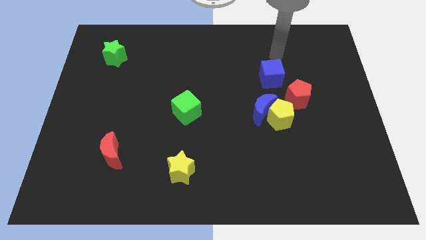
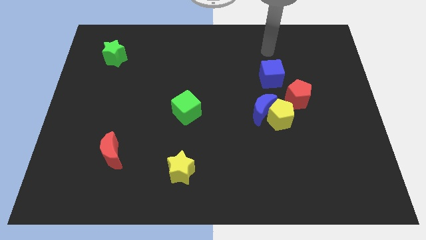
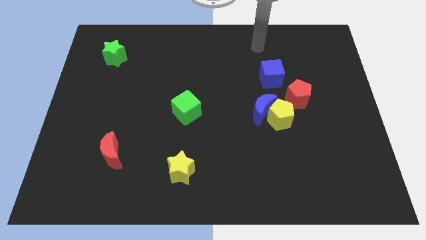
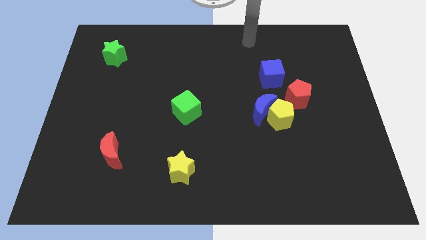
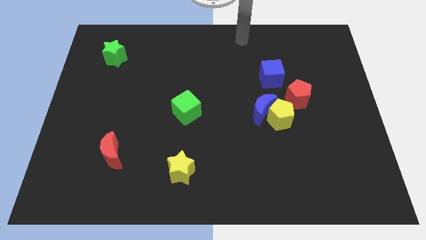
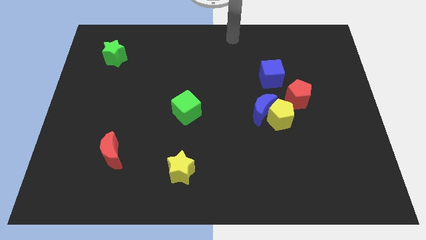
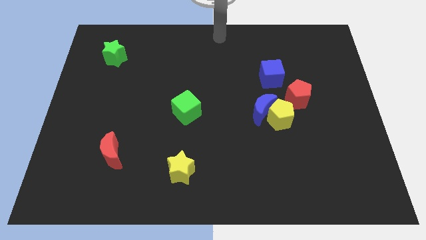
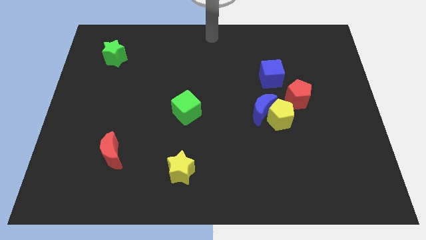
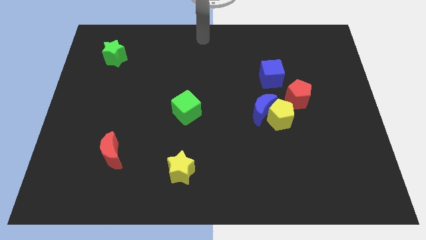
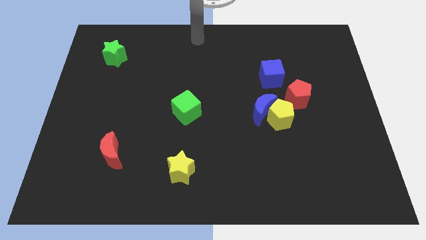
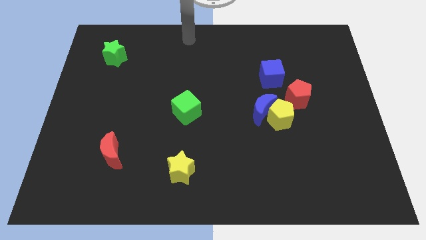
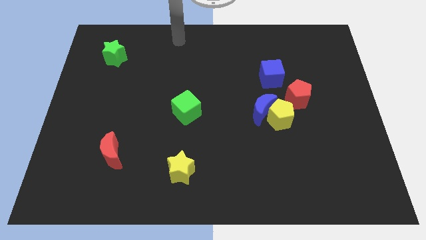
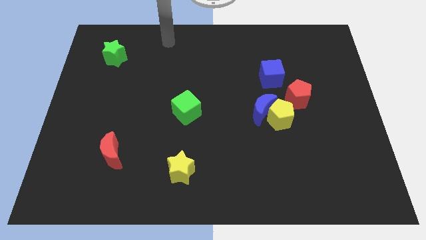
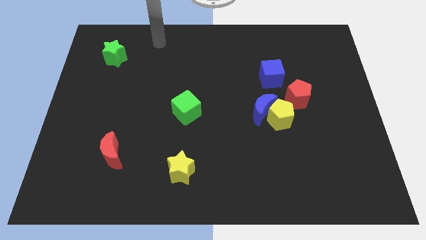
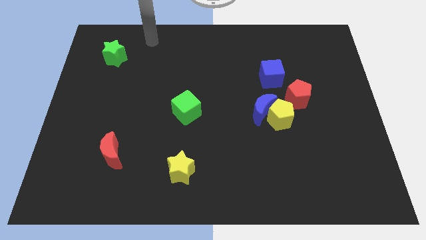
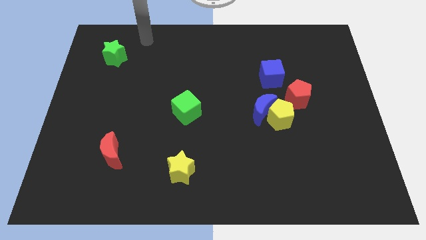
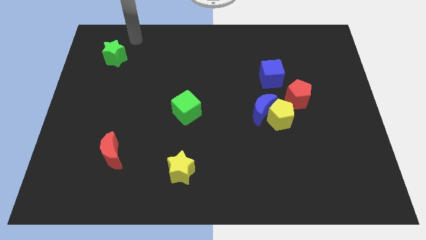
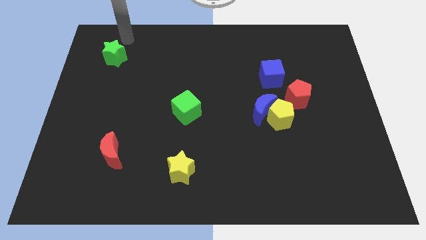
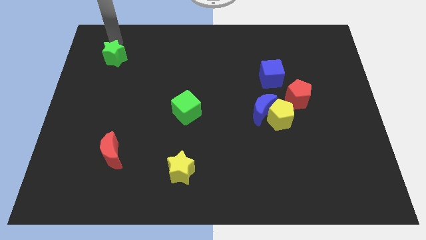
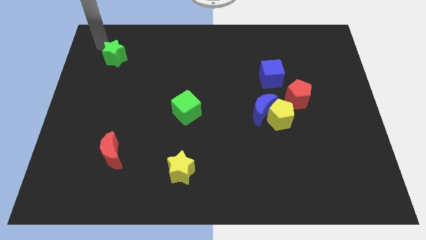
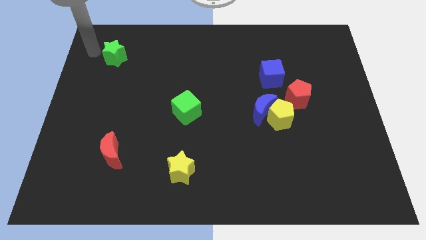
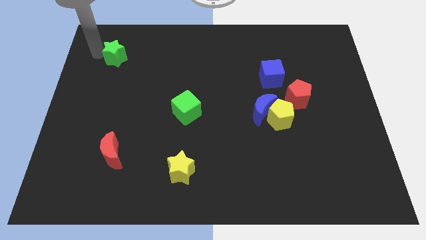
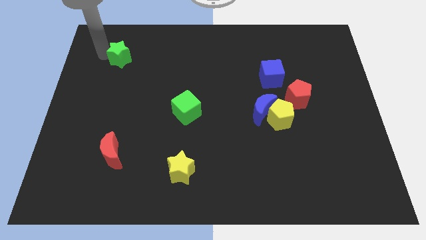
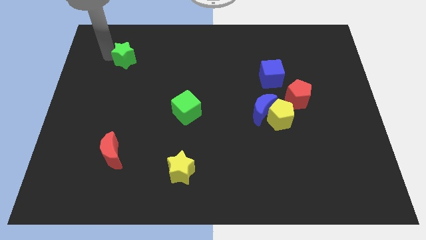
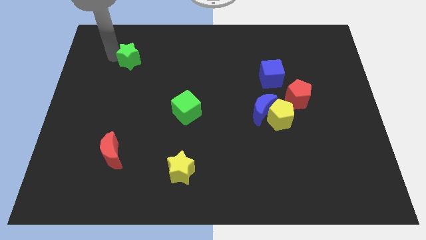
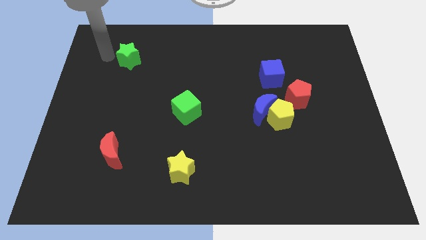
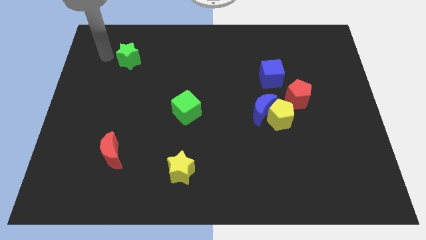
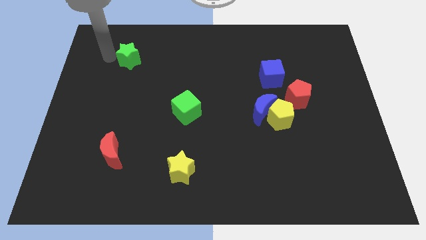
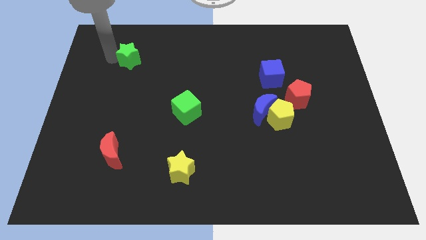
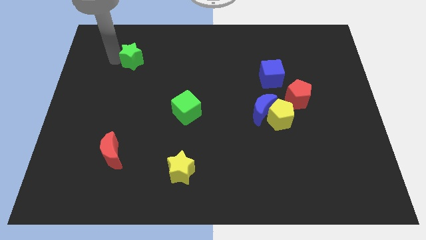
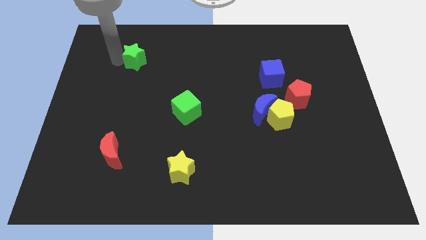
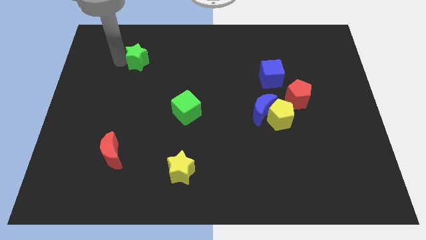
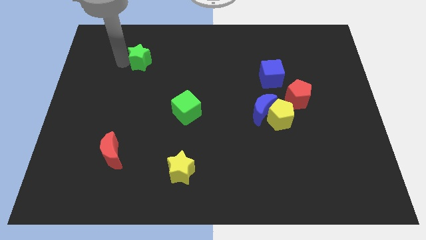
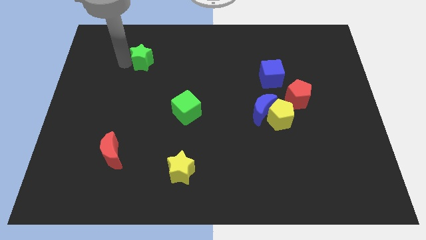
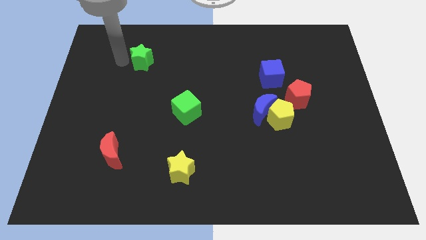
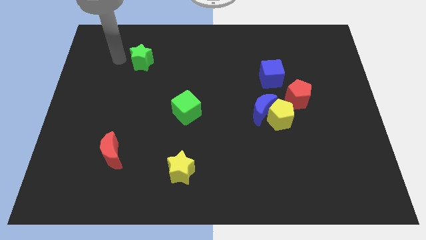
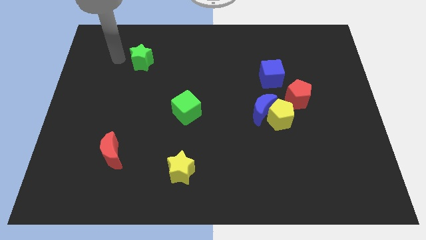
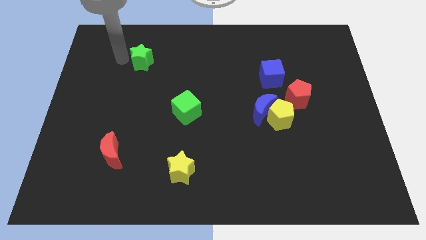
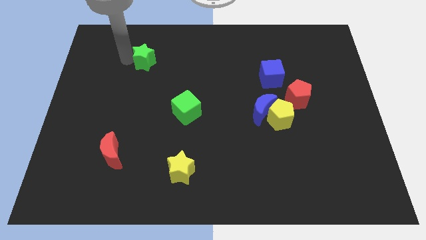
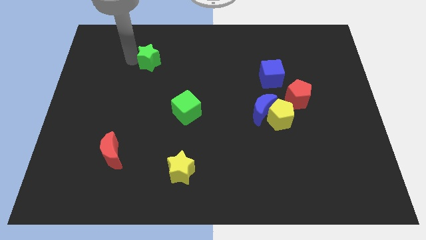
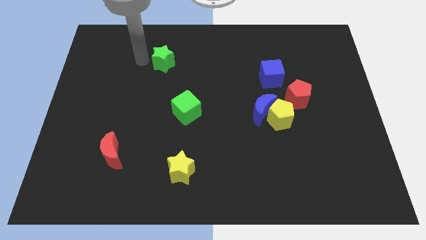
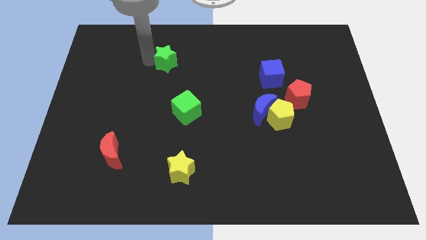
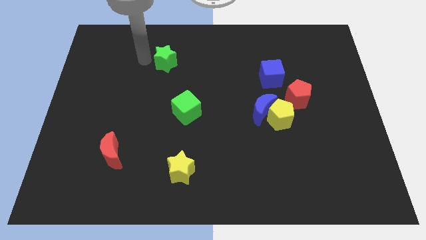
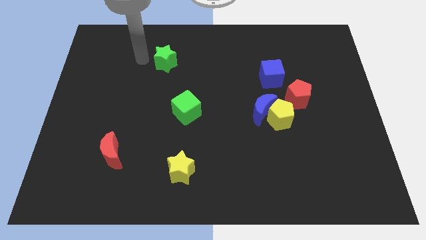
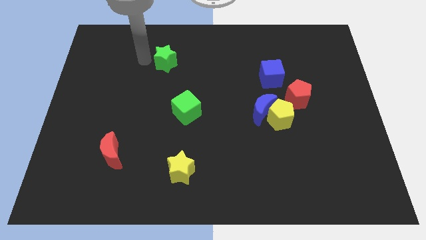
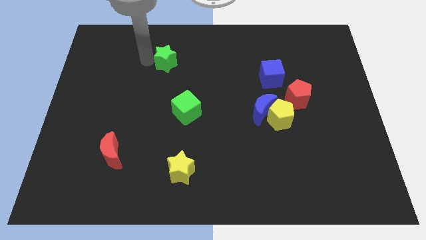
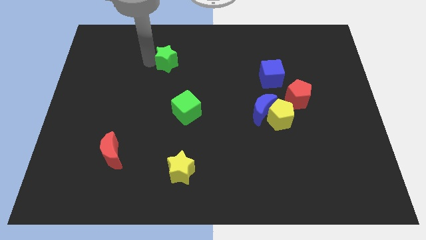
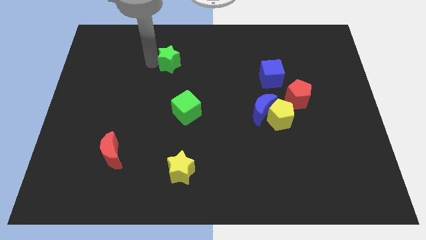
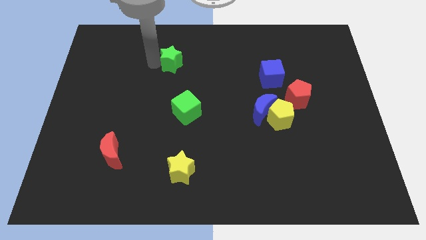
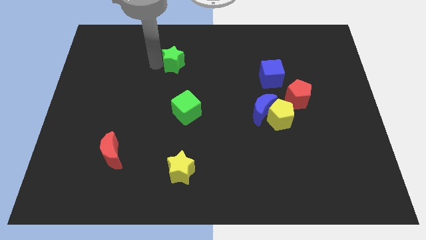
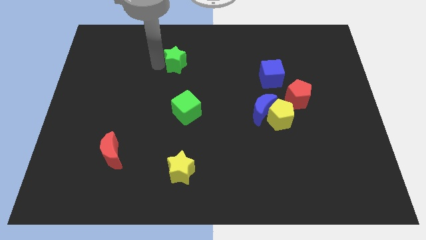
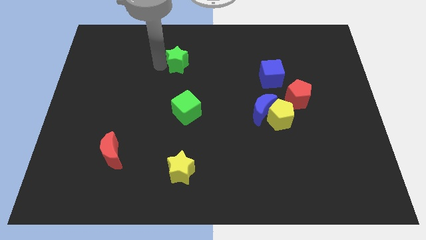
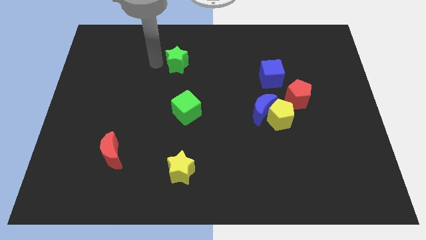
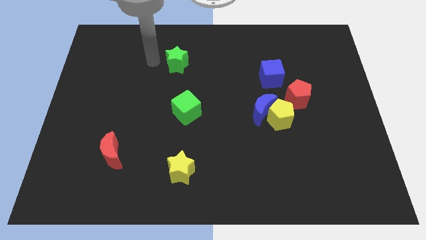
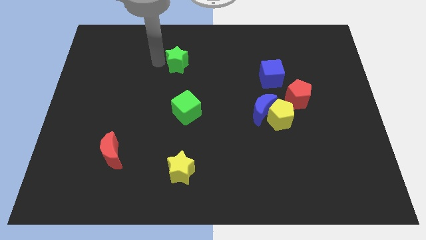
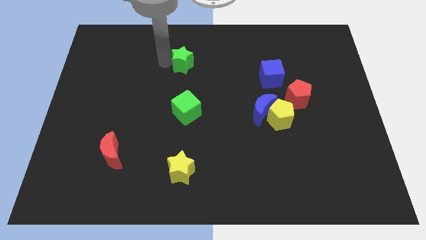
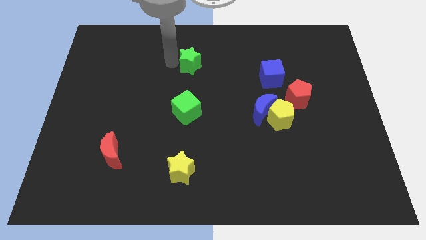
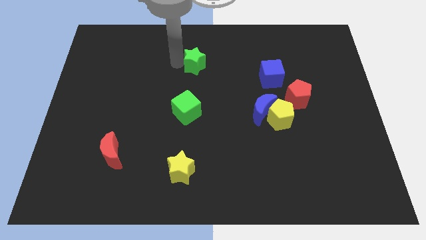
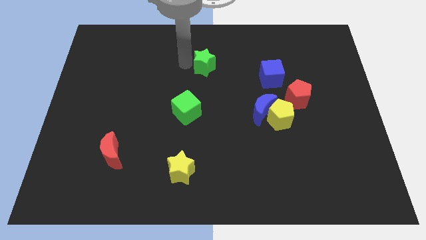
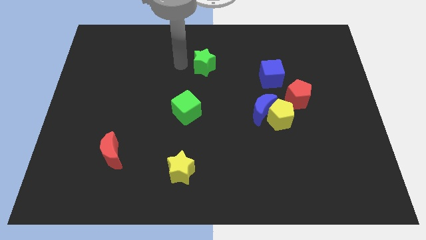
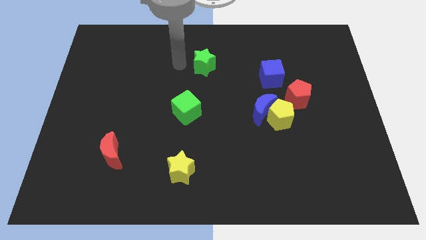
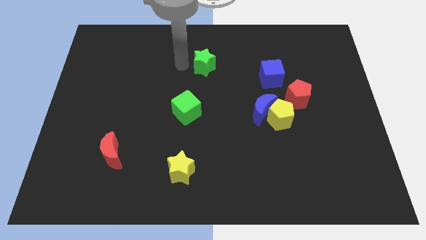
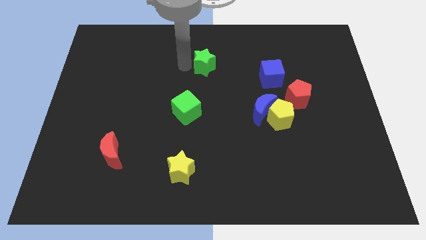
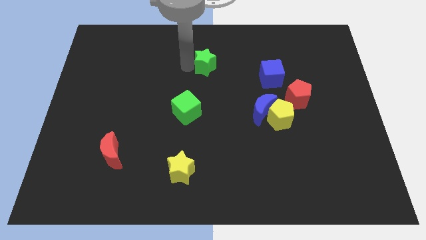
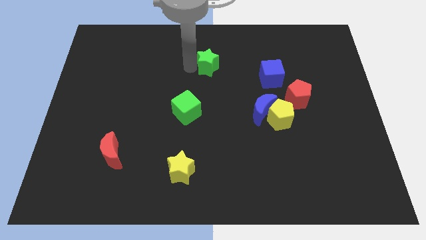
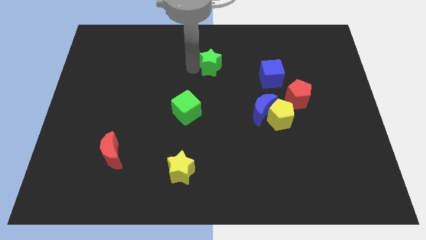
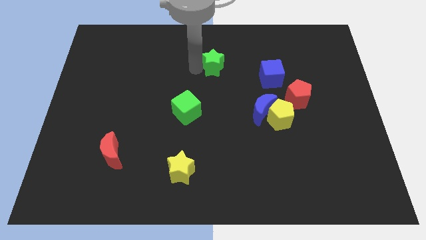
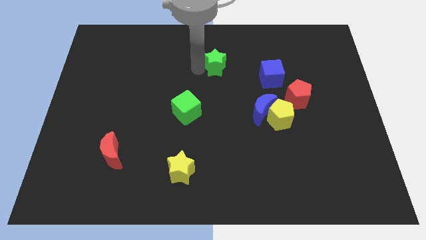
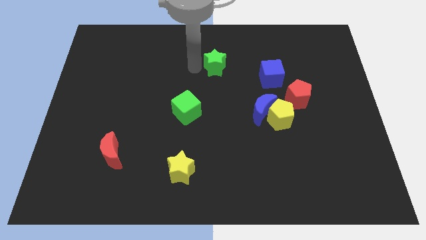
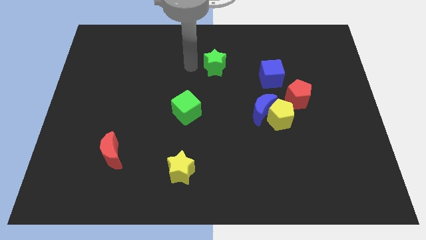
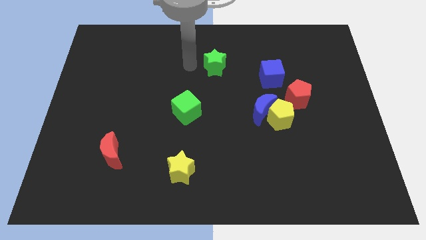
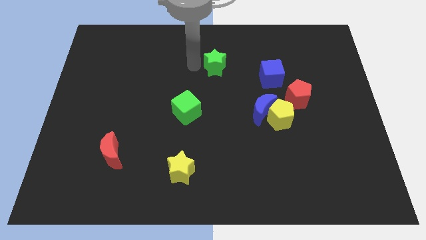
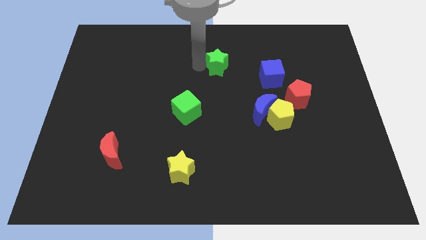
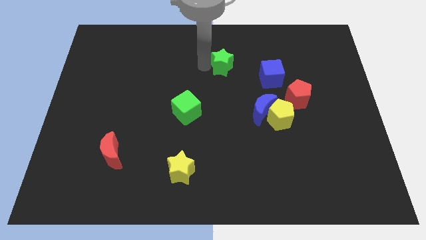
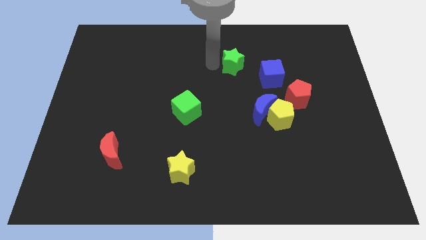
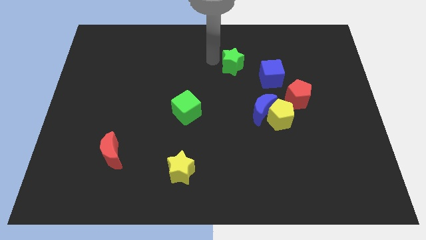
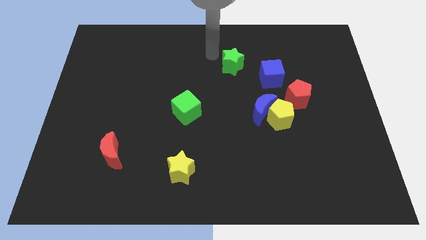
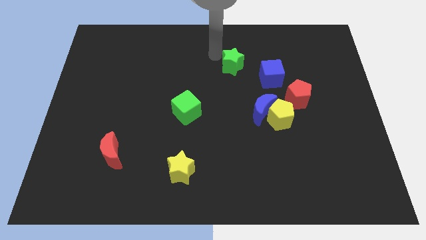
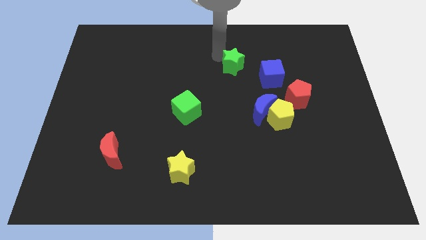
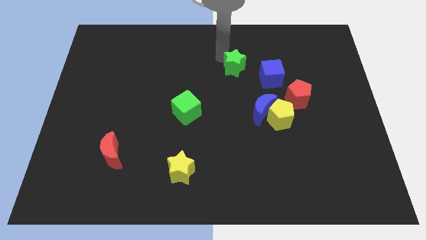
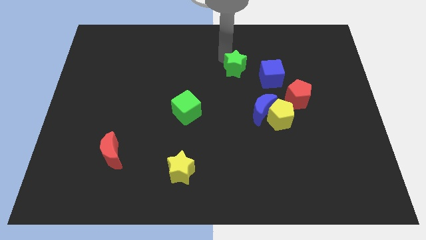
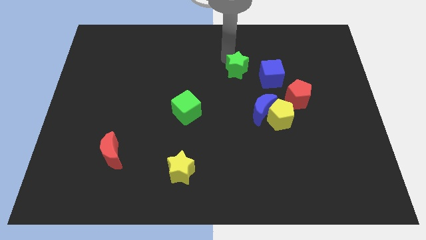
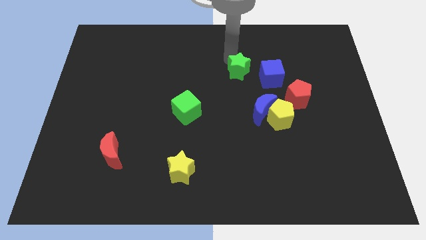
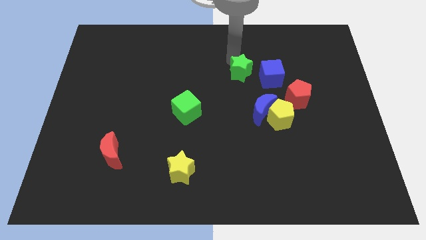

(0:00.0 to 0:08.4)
put the green star to the top side of the blue moon

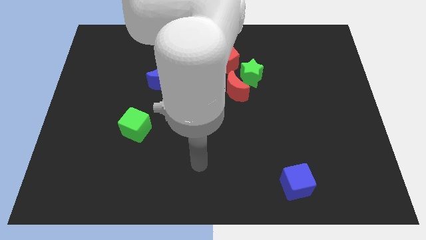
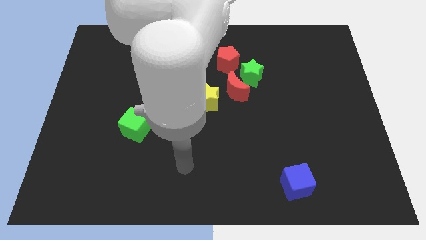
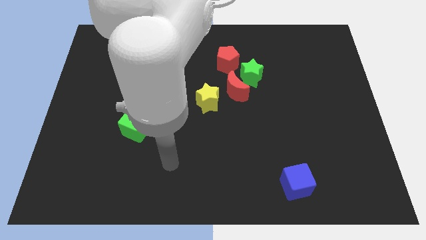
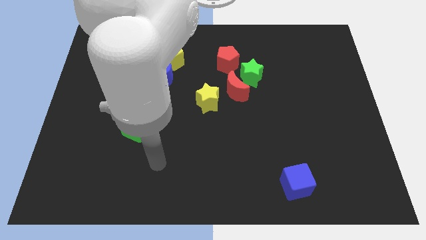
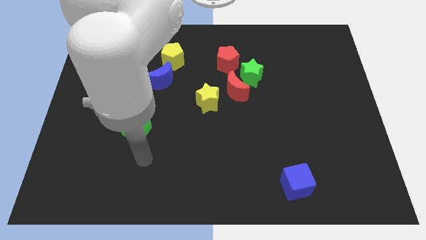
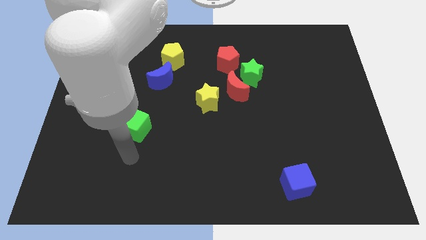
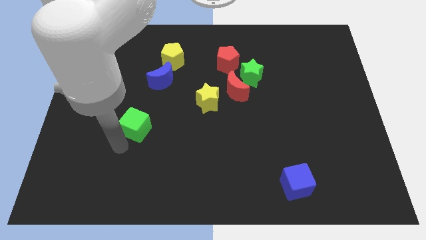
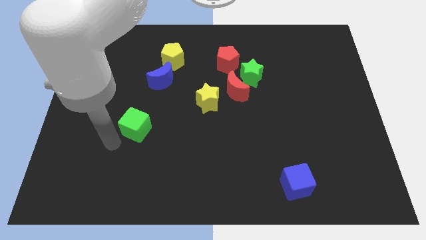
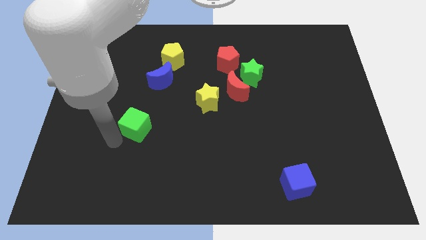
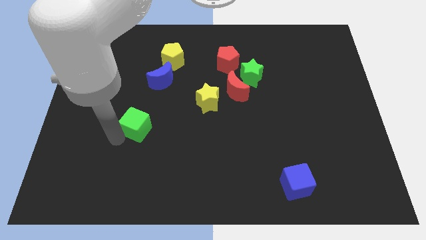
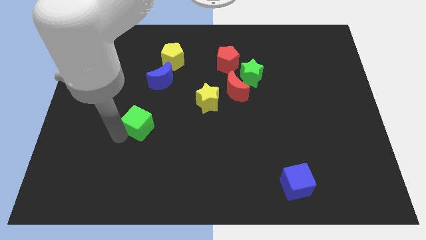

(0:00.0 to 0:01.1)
move the green cube below the blue moon
